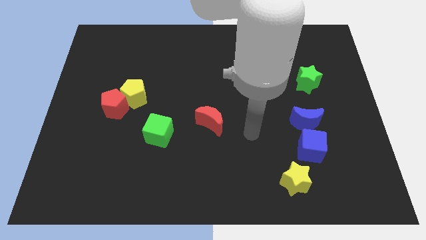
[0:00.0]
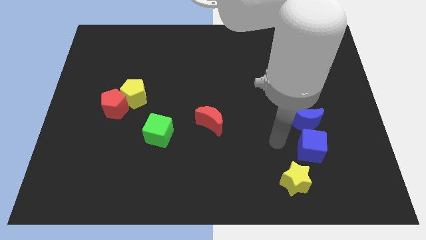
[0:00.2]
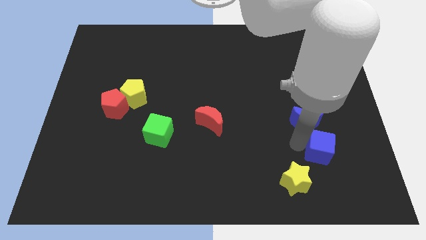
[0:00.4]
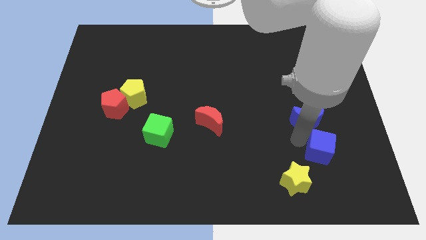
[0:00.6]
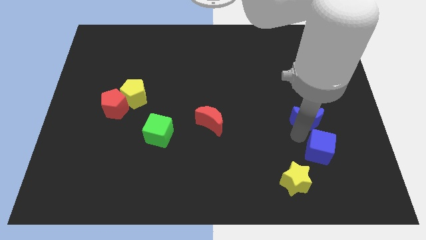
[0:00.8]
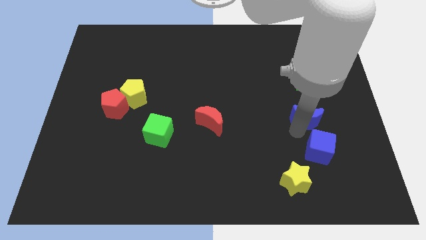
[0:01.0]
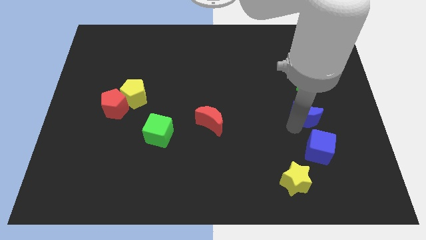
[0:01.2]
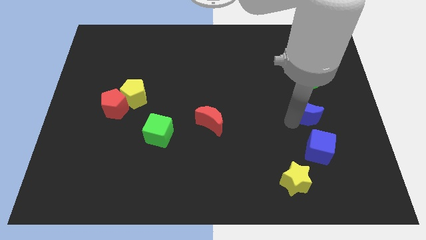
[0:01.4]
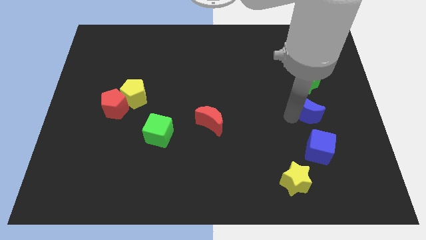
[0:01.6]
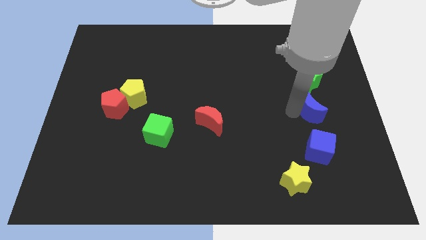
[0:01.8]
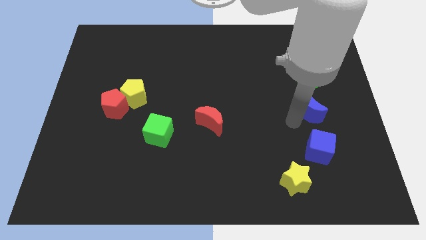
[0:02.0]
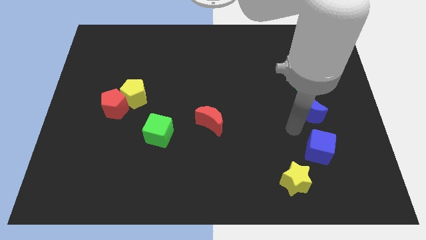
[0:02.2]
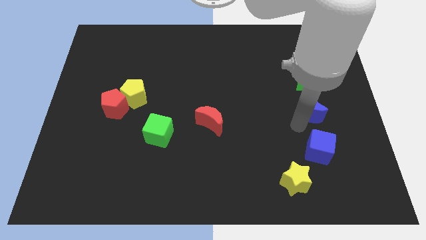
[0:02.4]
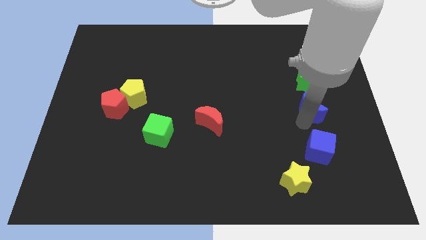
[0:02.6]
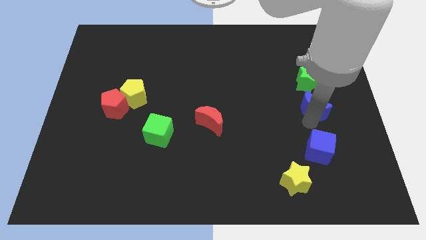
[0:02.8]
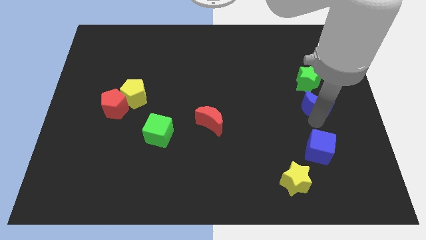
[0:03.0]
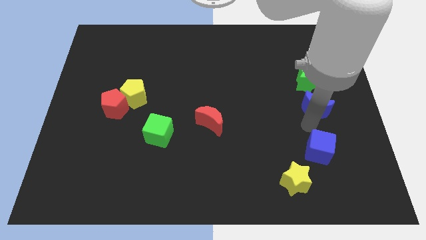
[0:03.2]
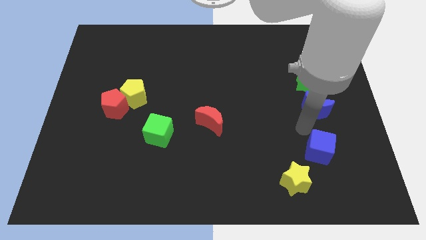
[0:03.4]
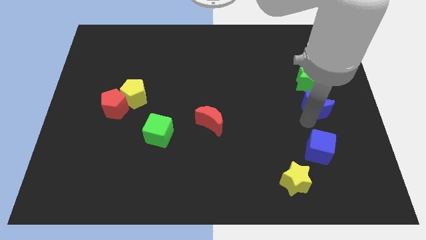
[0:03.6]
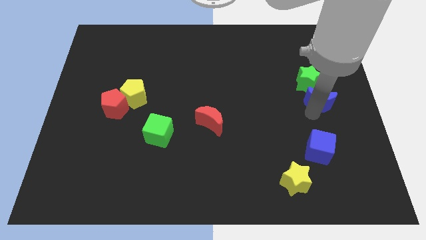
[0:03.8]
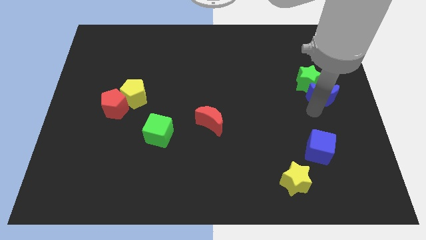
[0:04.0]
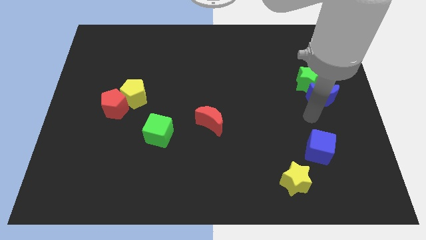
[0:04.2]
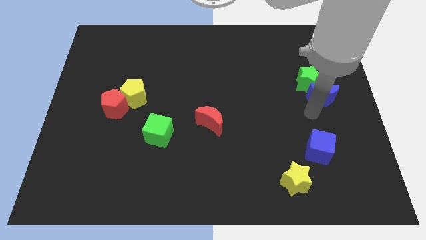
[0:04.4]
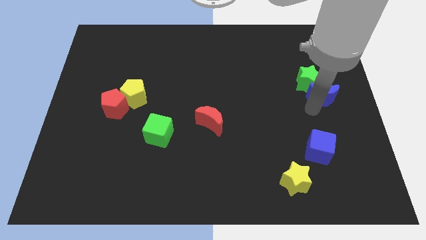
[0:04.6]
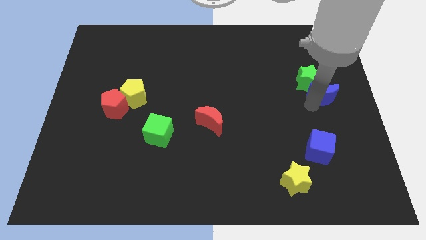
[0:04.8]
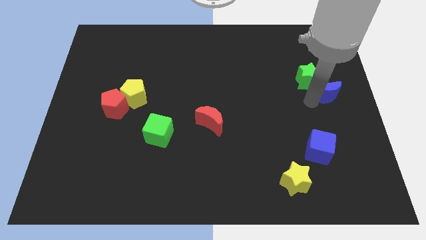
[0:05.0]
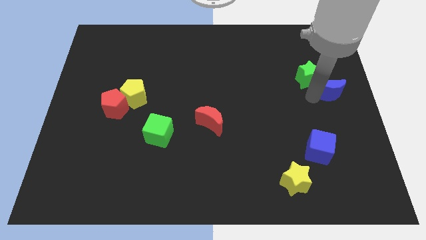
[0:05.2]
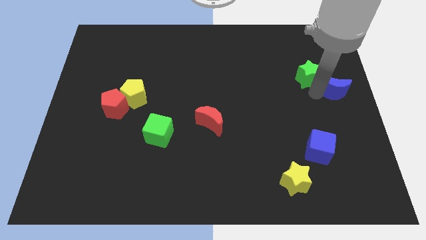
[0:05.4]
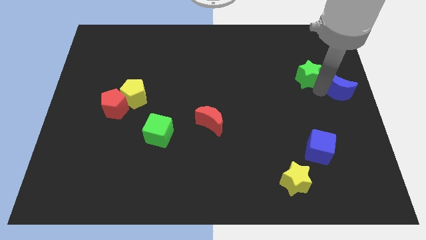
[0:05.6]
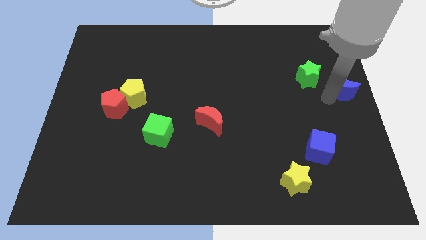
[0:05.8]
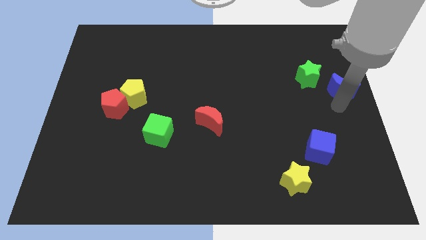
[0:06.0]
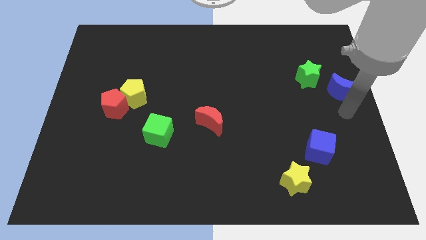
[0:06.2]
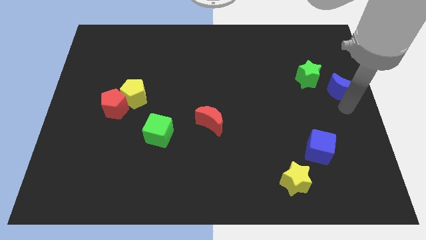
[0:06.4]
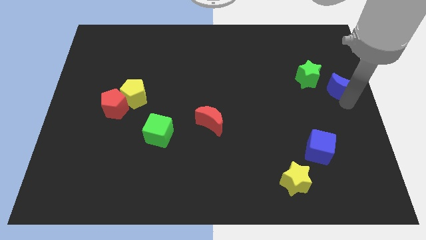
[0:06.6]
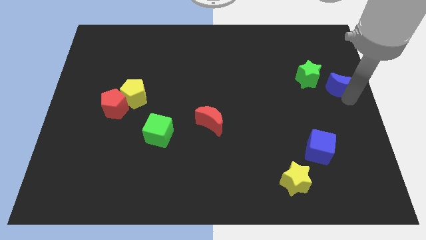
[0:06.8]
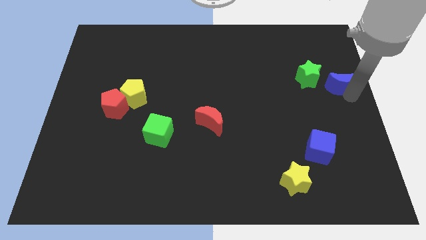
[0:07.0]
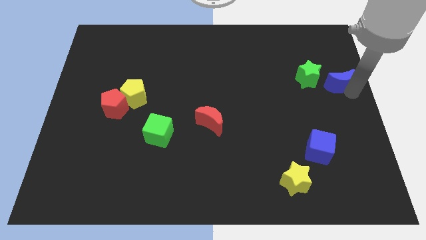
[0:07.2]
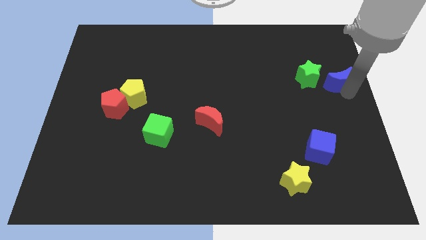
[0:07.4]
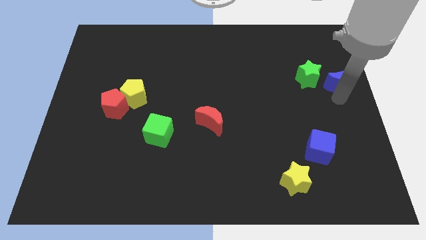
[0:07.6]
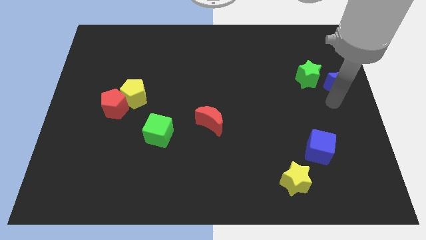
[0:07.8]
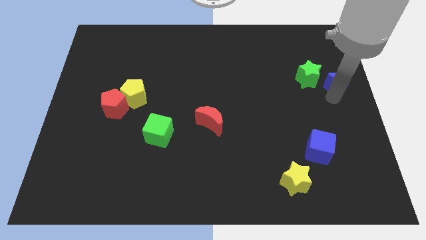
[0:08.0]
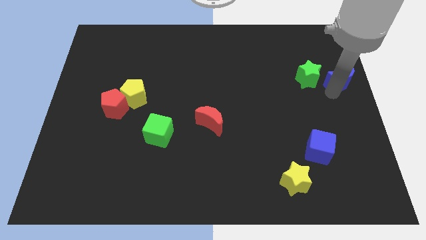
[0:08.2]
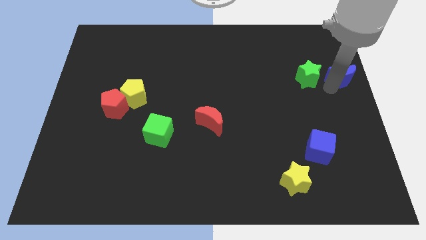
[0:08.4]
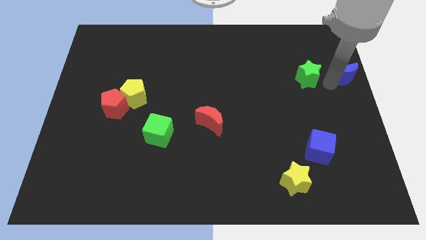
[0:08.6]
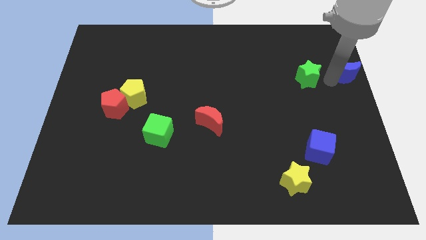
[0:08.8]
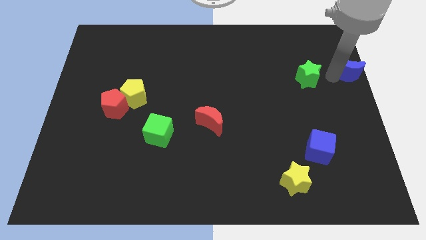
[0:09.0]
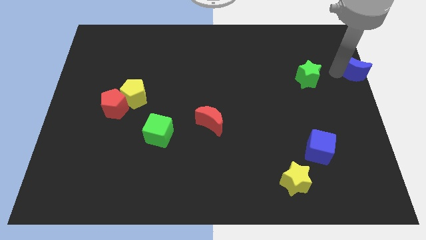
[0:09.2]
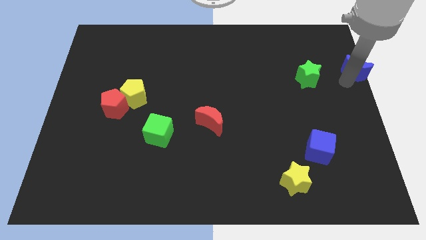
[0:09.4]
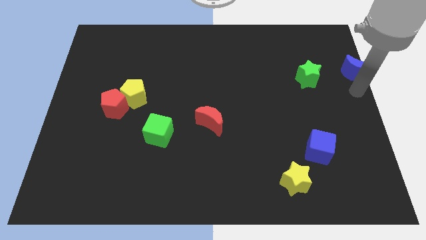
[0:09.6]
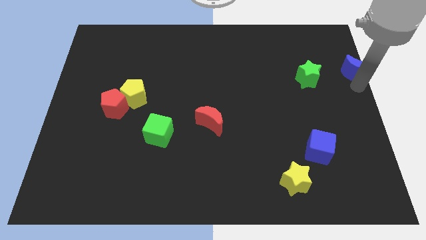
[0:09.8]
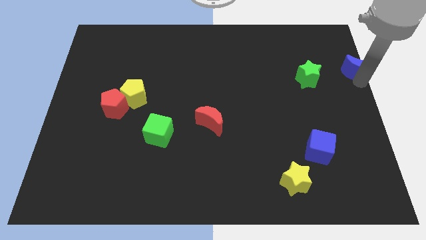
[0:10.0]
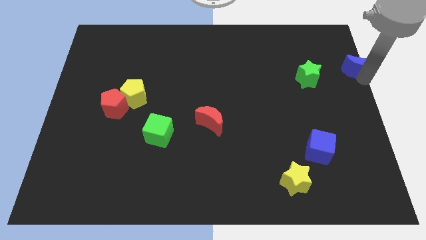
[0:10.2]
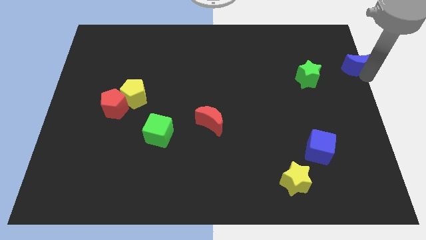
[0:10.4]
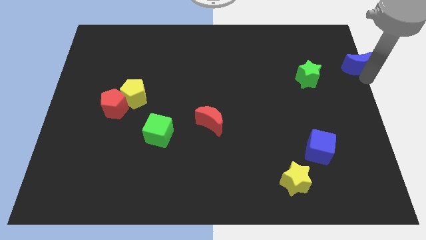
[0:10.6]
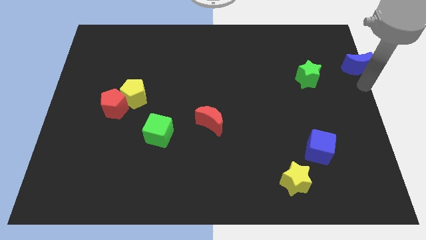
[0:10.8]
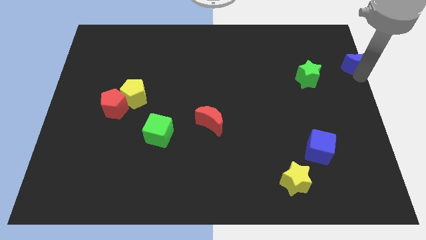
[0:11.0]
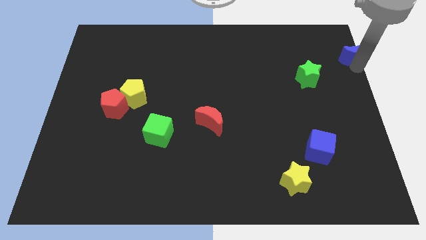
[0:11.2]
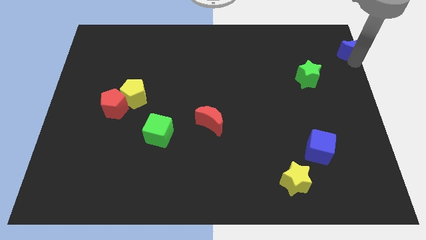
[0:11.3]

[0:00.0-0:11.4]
push the blue moon to the upper right corner

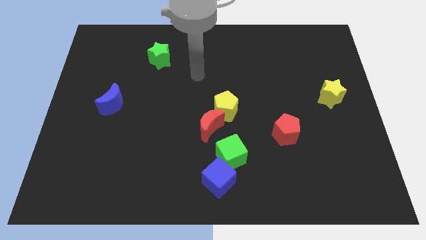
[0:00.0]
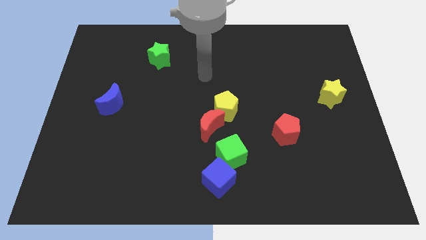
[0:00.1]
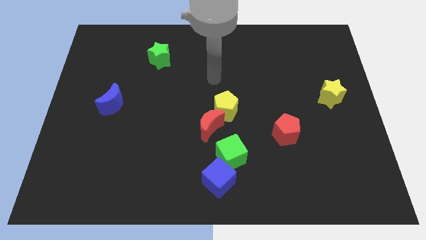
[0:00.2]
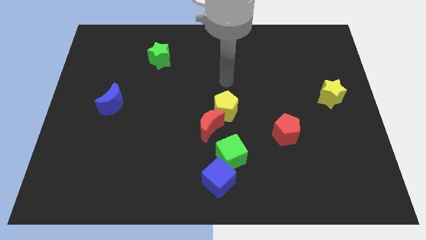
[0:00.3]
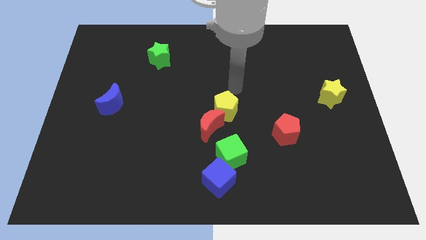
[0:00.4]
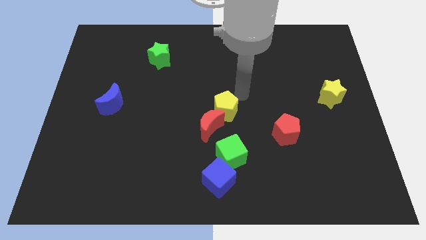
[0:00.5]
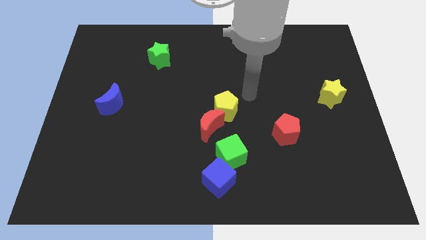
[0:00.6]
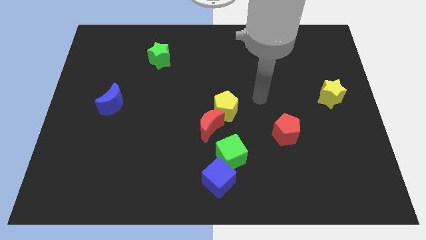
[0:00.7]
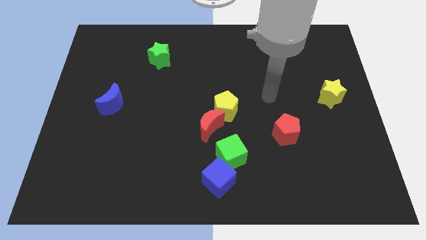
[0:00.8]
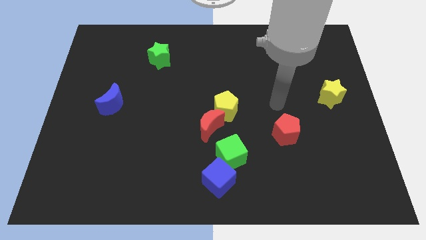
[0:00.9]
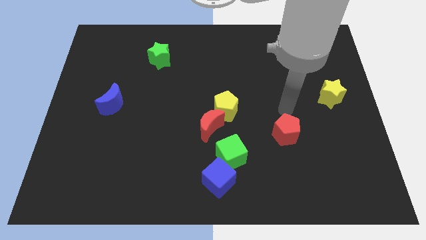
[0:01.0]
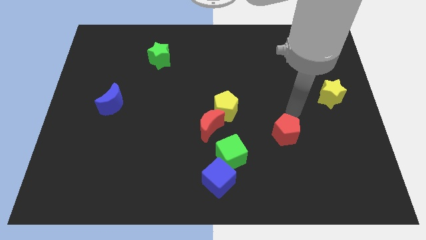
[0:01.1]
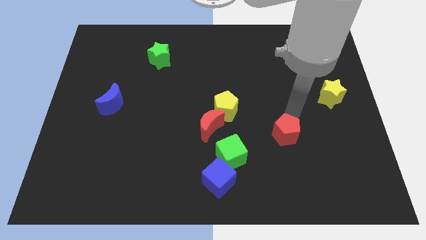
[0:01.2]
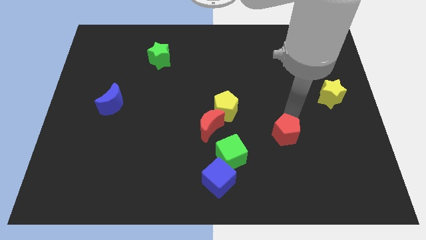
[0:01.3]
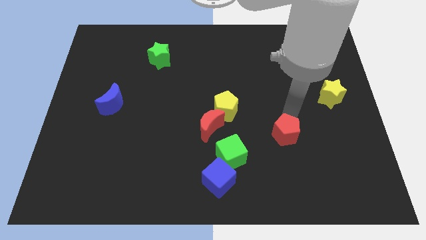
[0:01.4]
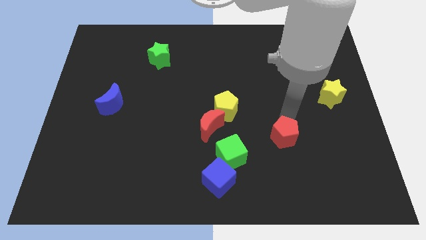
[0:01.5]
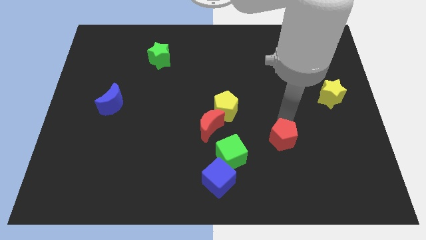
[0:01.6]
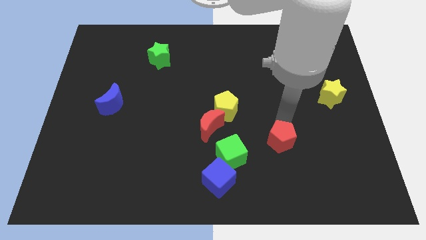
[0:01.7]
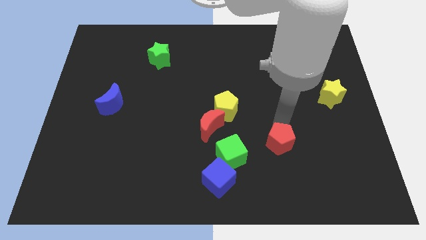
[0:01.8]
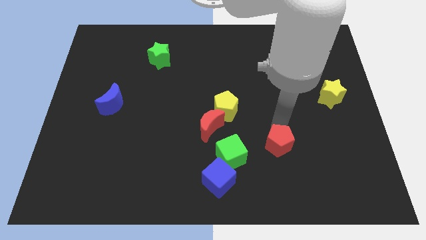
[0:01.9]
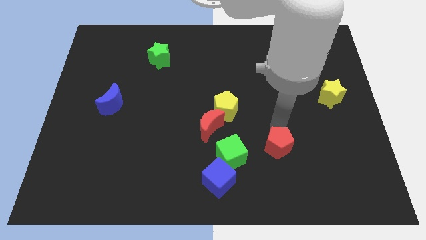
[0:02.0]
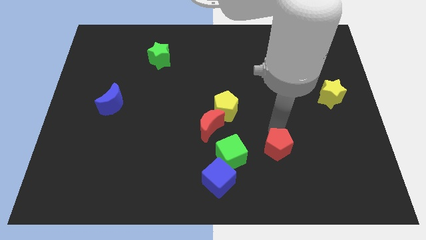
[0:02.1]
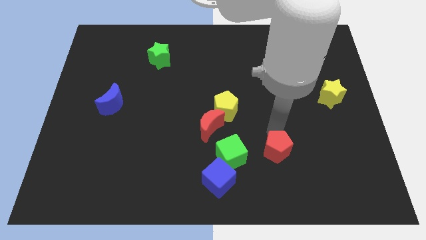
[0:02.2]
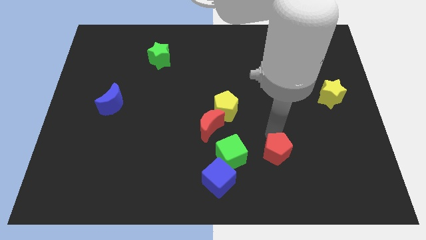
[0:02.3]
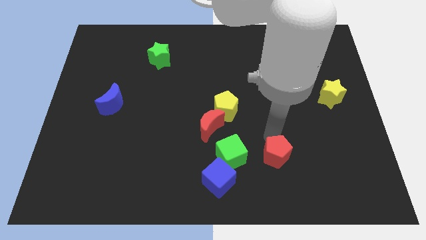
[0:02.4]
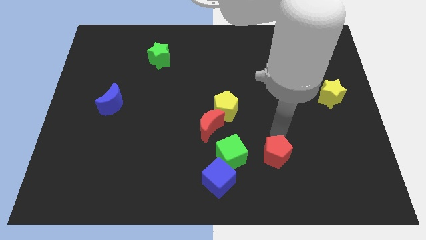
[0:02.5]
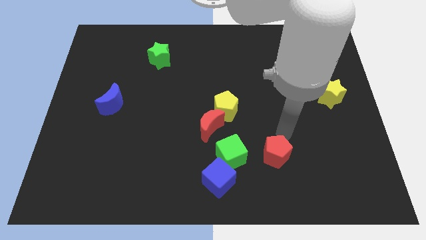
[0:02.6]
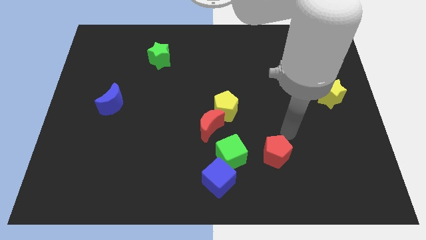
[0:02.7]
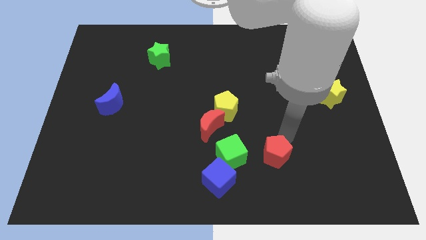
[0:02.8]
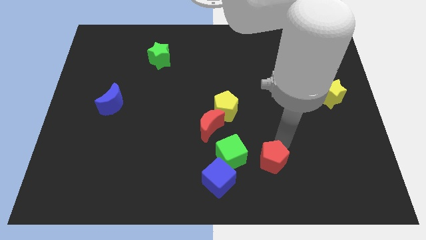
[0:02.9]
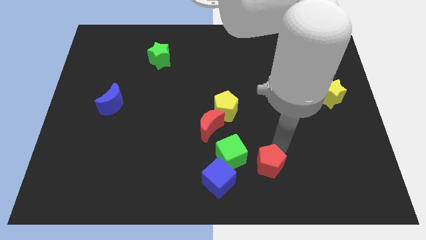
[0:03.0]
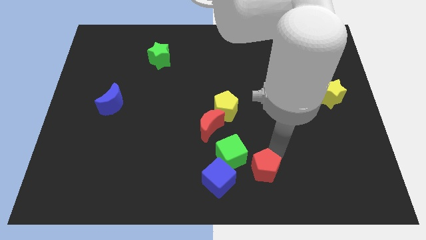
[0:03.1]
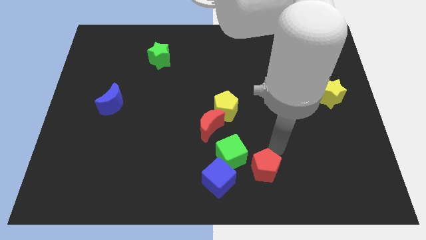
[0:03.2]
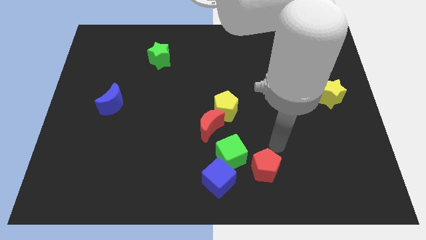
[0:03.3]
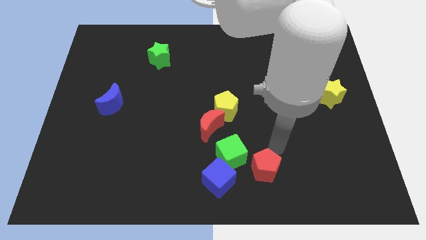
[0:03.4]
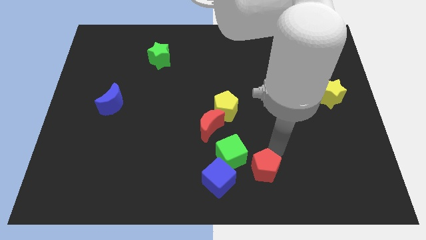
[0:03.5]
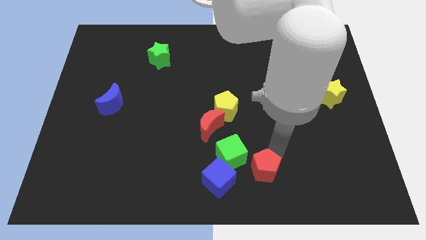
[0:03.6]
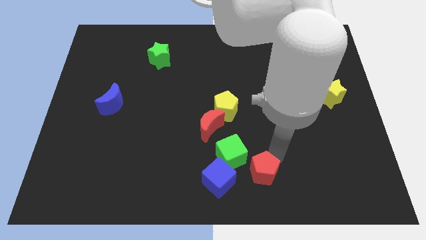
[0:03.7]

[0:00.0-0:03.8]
put the red pentagon to the bottom
